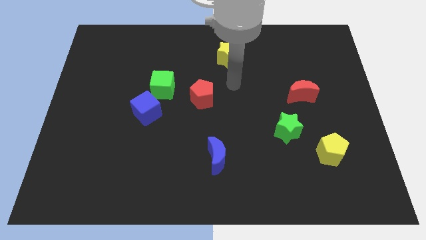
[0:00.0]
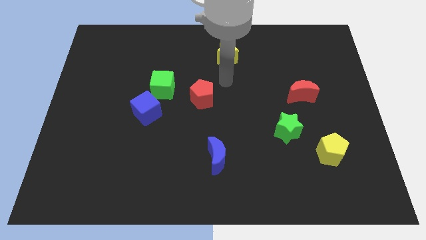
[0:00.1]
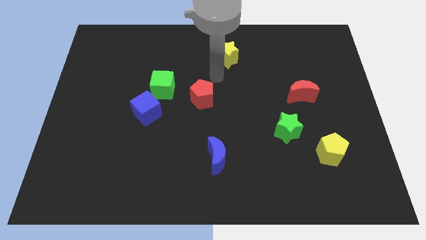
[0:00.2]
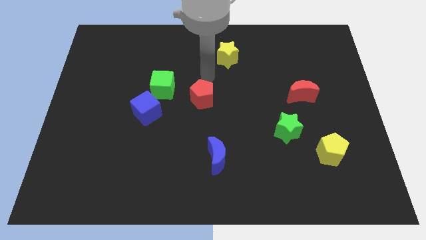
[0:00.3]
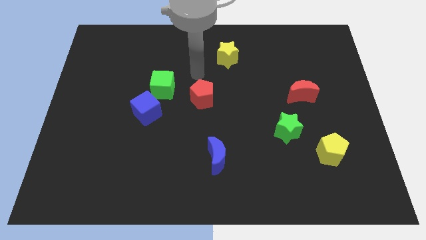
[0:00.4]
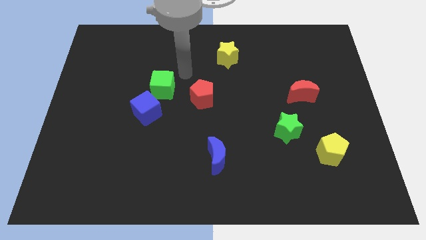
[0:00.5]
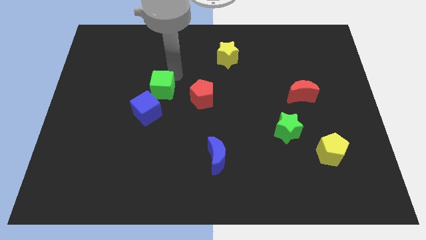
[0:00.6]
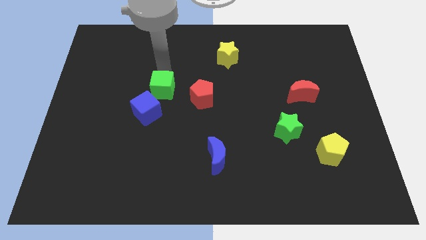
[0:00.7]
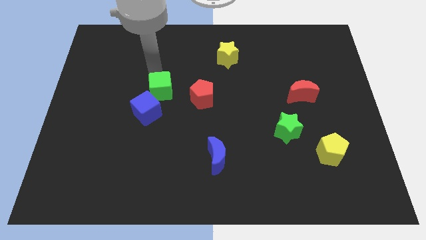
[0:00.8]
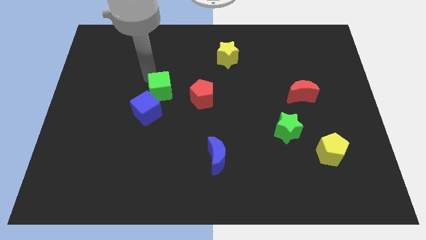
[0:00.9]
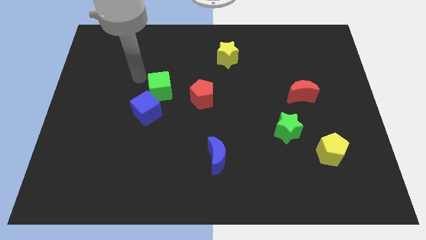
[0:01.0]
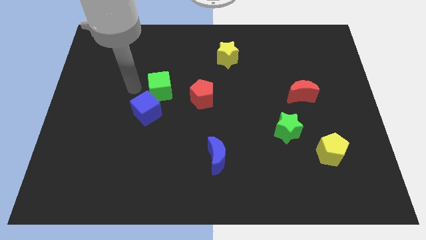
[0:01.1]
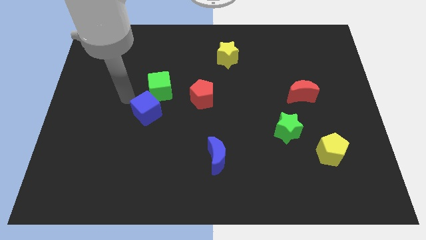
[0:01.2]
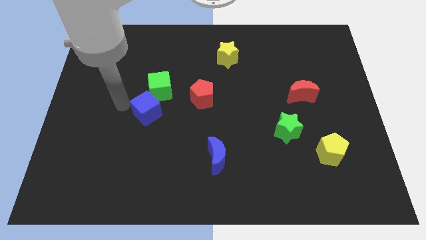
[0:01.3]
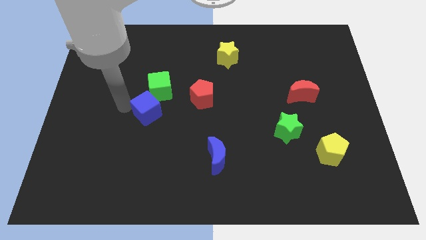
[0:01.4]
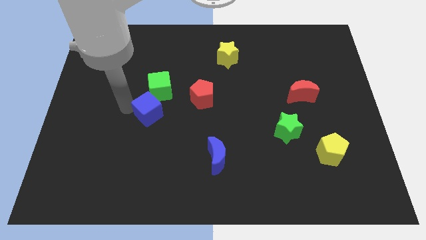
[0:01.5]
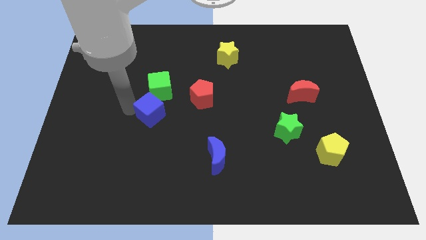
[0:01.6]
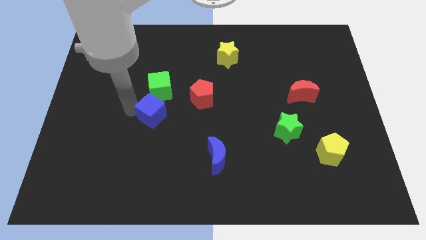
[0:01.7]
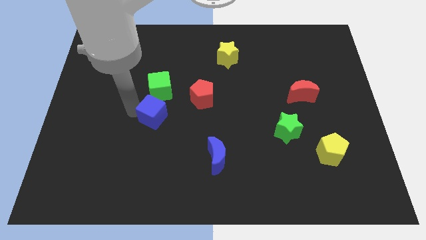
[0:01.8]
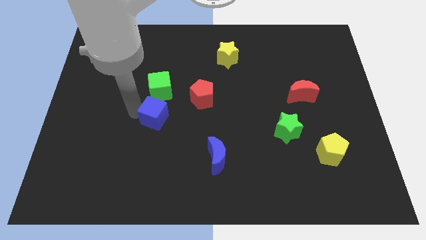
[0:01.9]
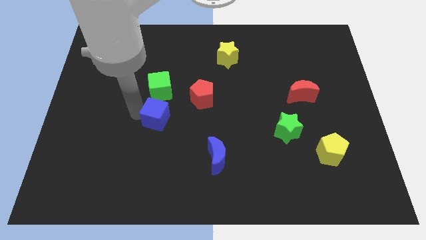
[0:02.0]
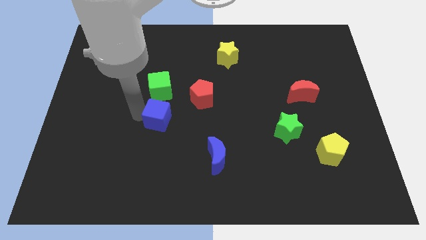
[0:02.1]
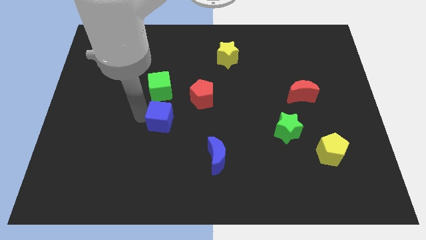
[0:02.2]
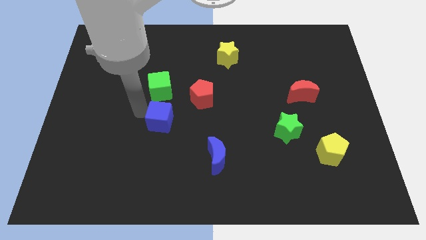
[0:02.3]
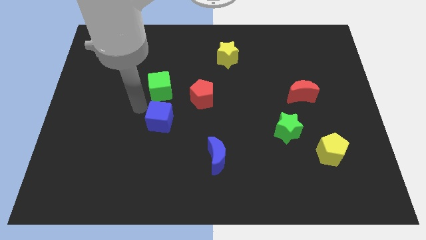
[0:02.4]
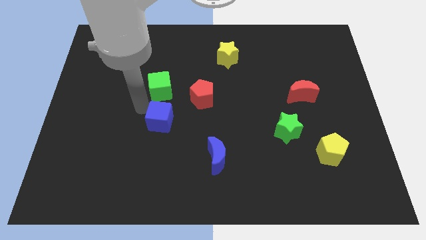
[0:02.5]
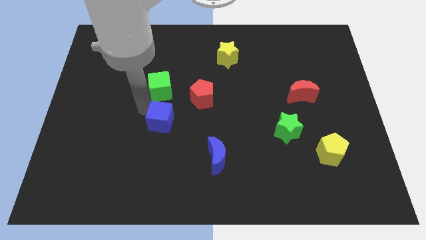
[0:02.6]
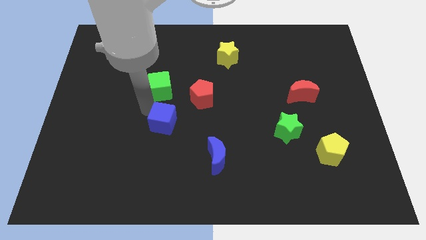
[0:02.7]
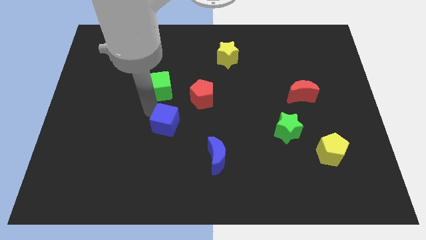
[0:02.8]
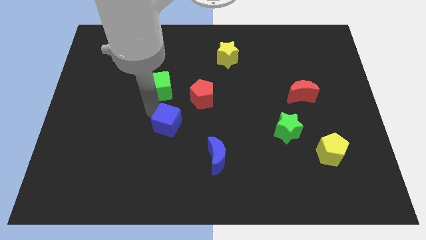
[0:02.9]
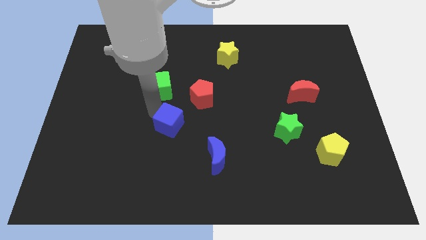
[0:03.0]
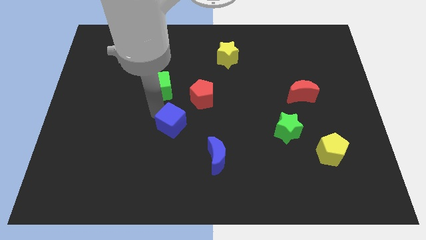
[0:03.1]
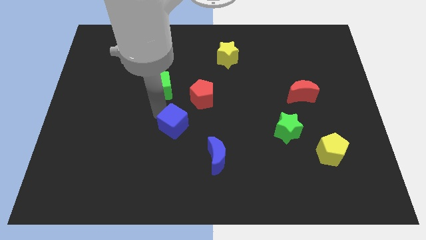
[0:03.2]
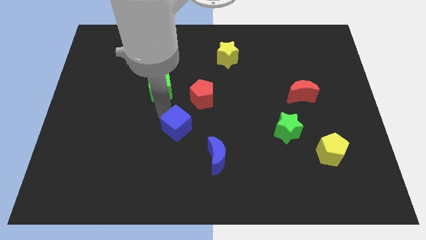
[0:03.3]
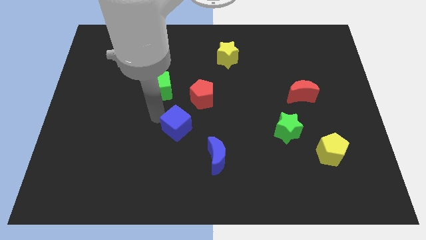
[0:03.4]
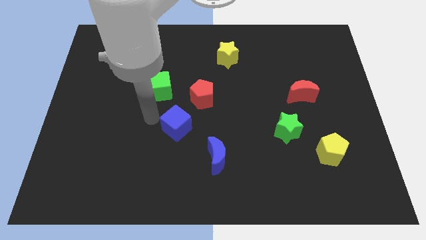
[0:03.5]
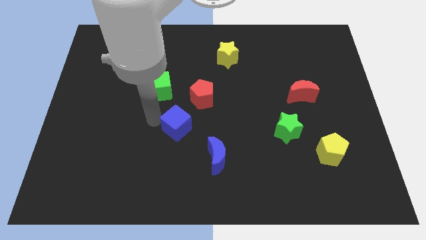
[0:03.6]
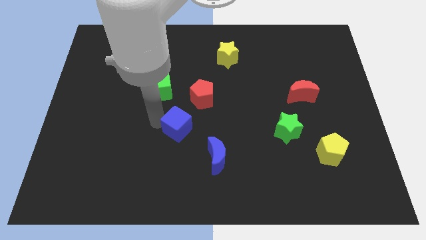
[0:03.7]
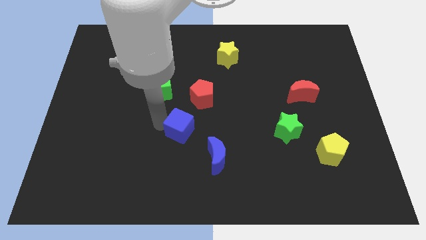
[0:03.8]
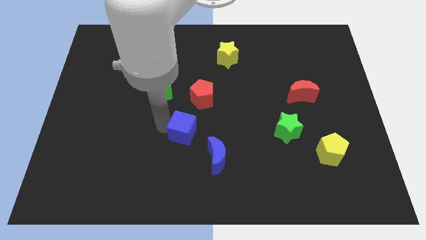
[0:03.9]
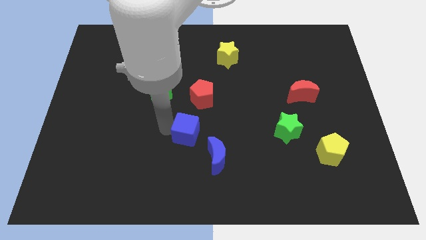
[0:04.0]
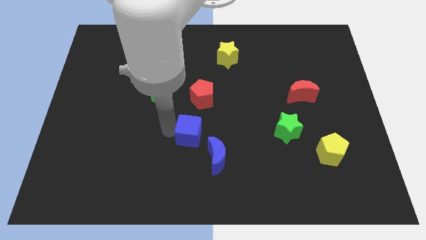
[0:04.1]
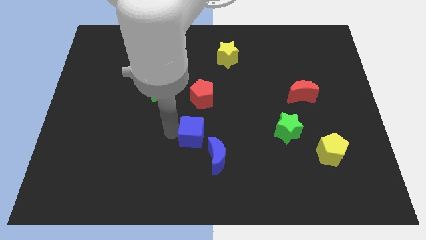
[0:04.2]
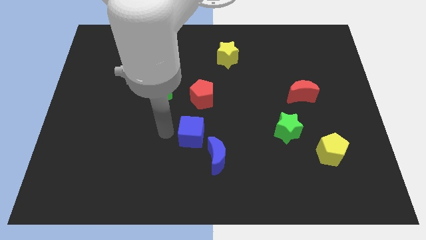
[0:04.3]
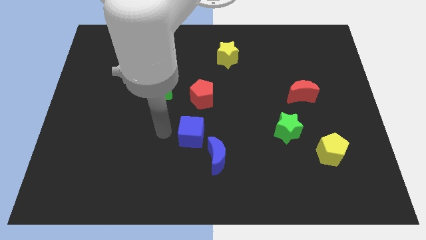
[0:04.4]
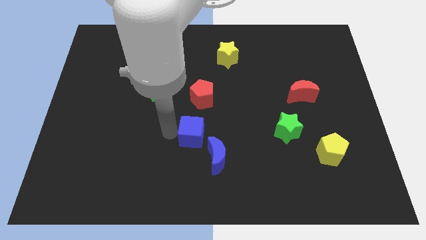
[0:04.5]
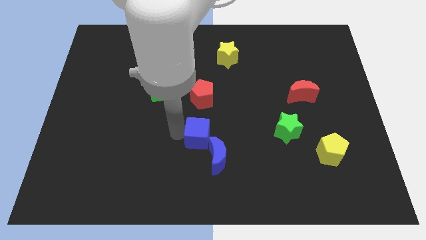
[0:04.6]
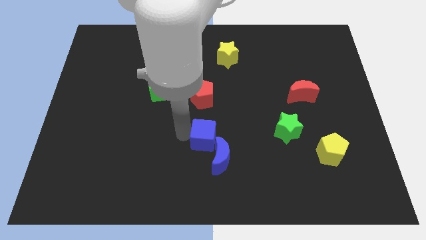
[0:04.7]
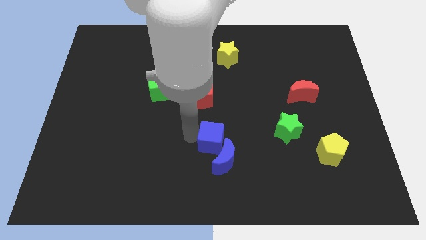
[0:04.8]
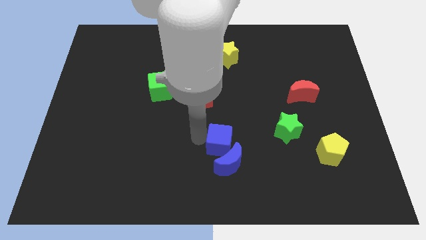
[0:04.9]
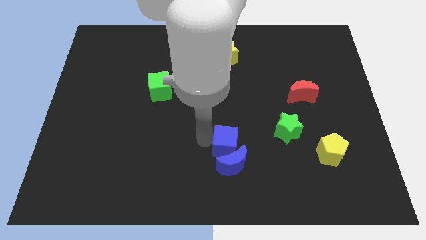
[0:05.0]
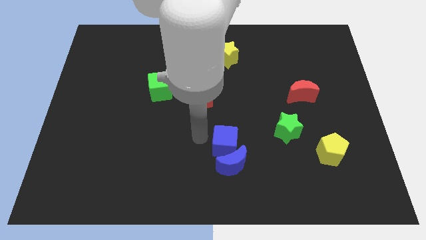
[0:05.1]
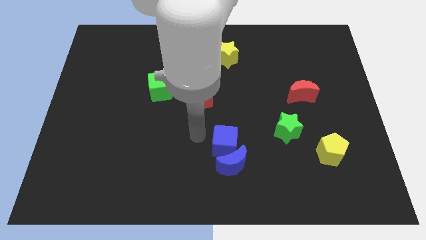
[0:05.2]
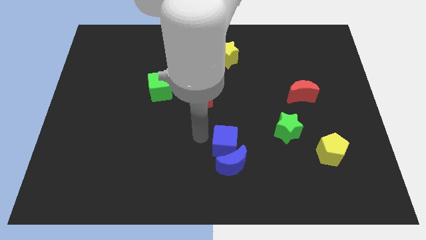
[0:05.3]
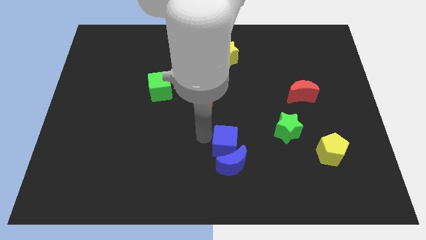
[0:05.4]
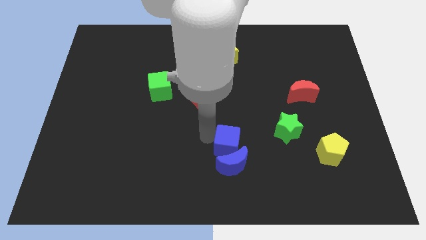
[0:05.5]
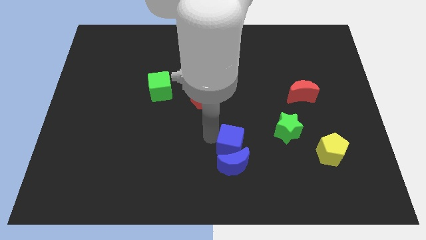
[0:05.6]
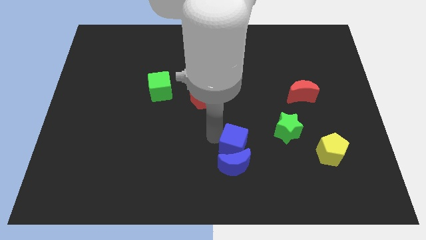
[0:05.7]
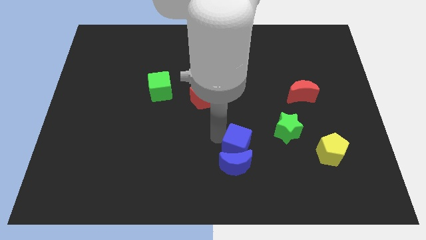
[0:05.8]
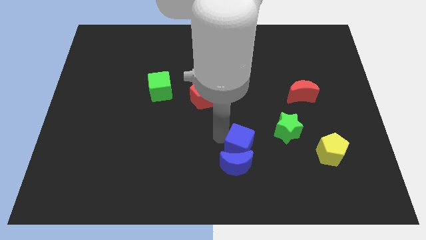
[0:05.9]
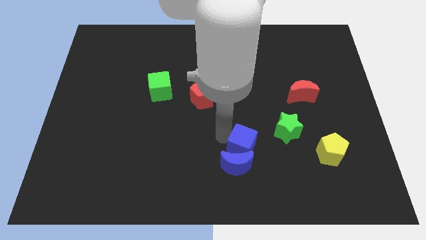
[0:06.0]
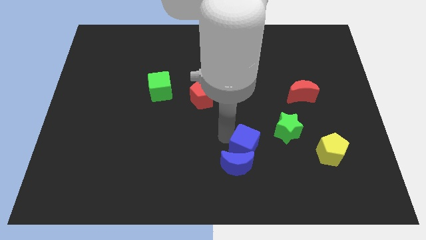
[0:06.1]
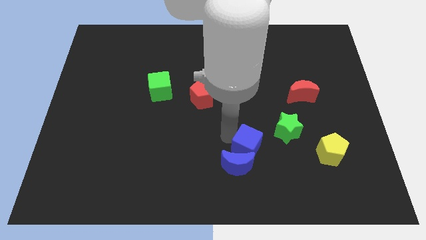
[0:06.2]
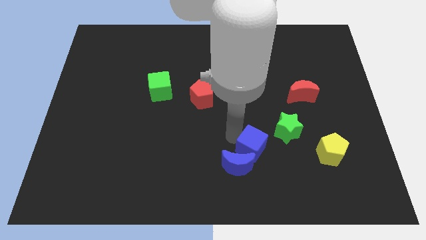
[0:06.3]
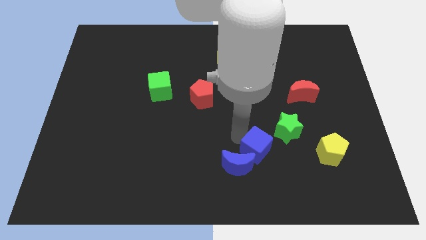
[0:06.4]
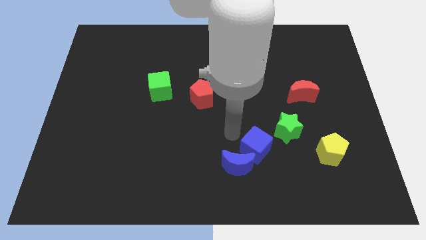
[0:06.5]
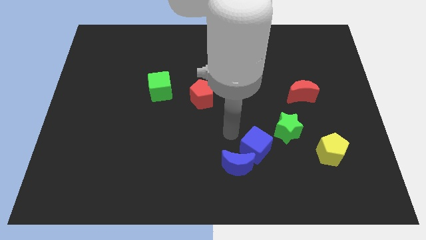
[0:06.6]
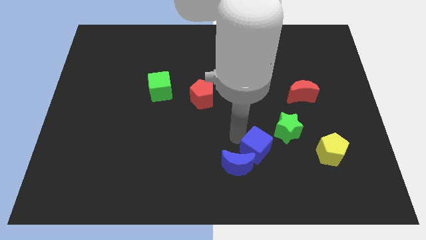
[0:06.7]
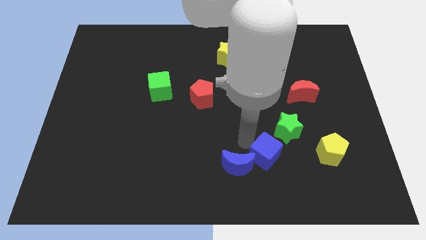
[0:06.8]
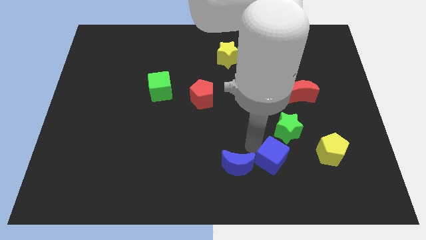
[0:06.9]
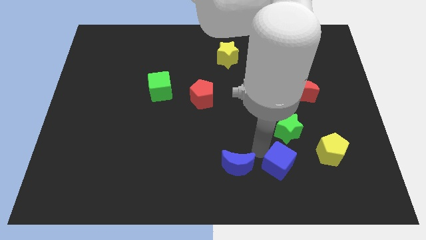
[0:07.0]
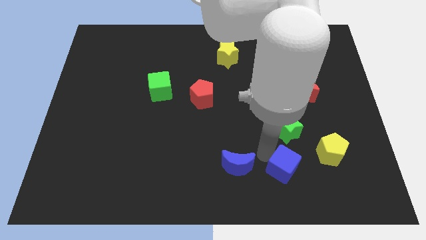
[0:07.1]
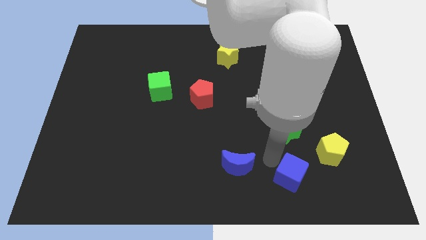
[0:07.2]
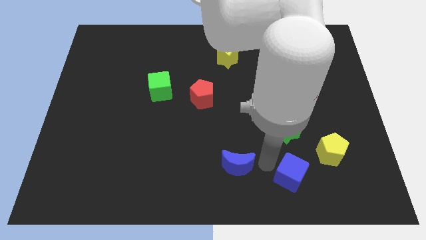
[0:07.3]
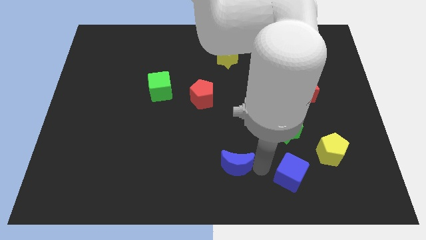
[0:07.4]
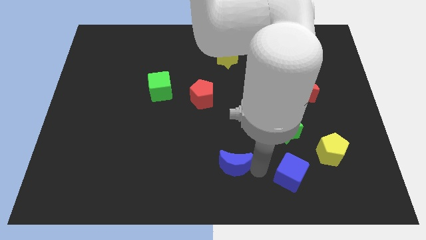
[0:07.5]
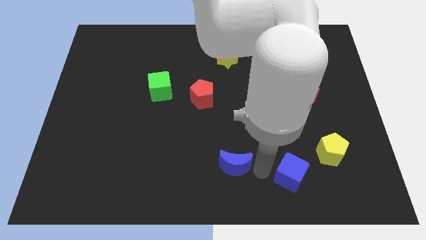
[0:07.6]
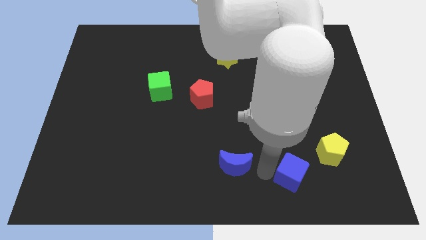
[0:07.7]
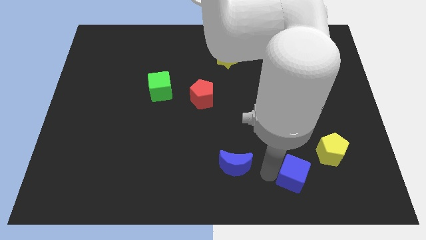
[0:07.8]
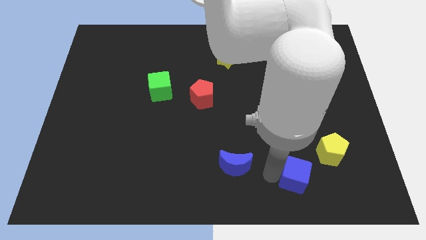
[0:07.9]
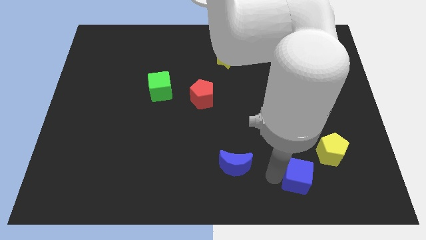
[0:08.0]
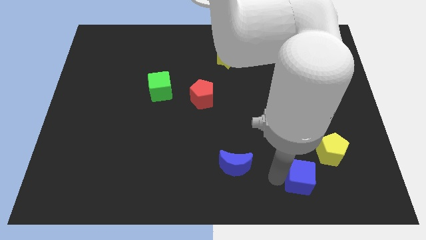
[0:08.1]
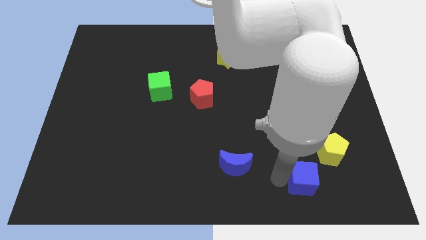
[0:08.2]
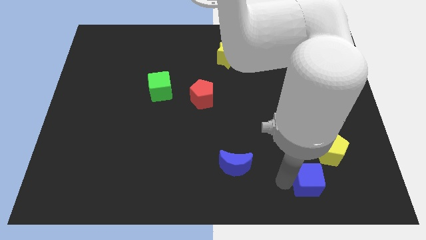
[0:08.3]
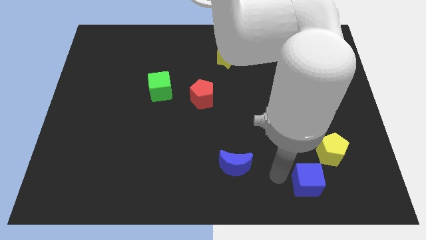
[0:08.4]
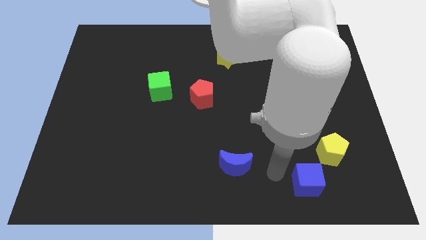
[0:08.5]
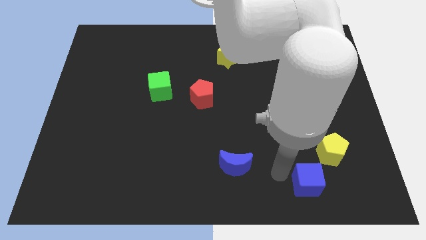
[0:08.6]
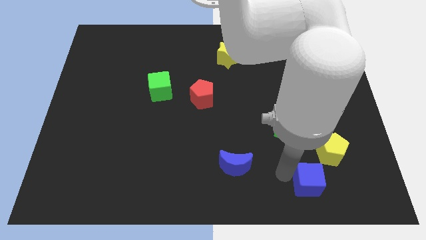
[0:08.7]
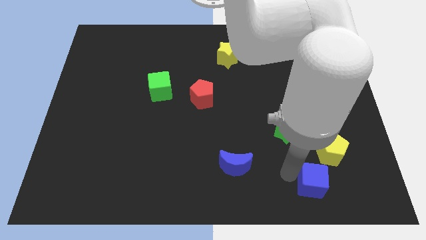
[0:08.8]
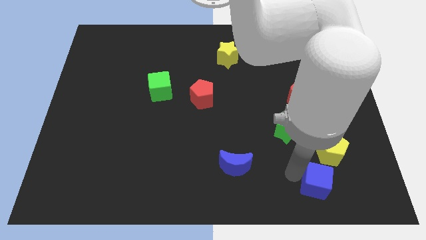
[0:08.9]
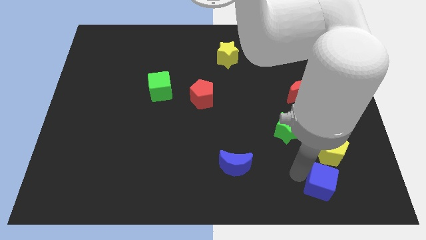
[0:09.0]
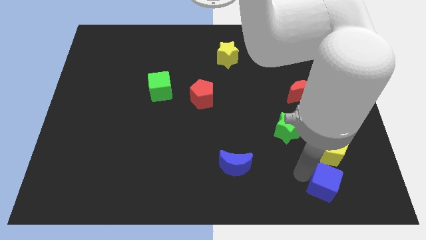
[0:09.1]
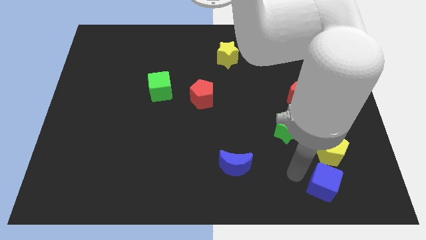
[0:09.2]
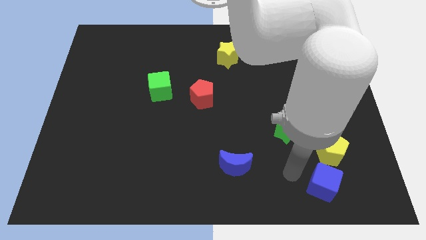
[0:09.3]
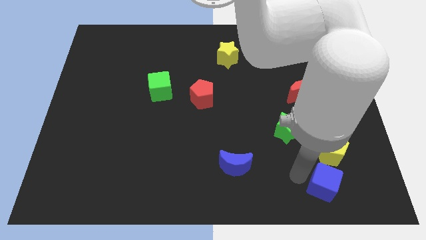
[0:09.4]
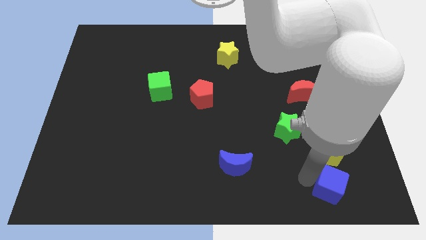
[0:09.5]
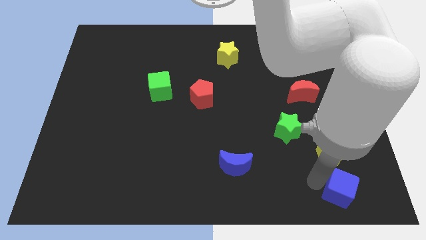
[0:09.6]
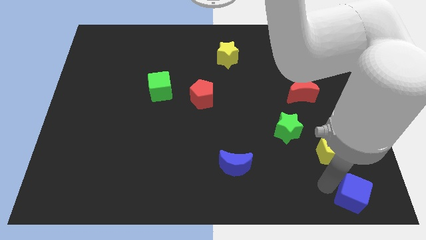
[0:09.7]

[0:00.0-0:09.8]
move the blue cube to the bottom right of the board
